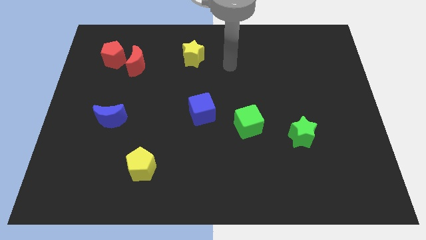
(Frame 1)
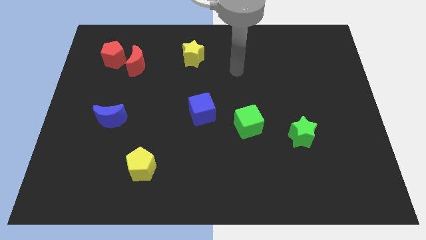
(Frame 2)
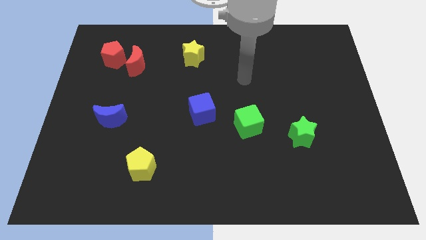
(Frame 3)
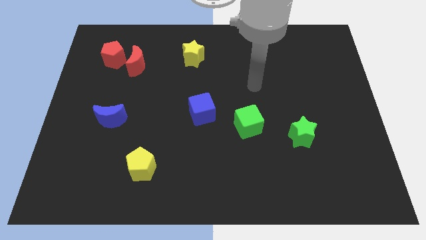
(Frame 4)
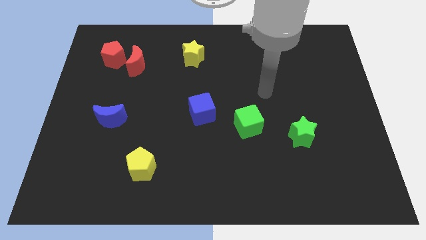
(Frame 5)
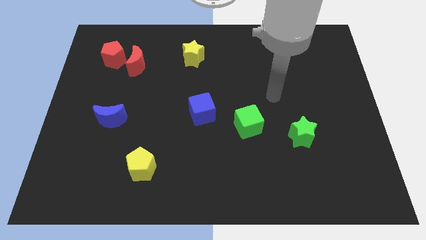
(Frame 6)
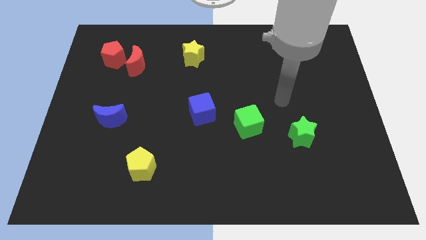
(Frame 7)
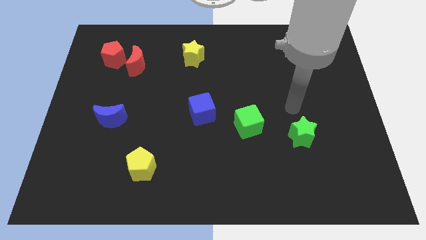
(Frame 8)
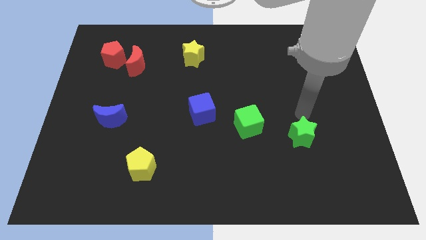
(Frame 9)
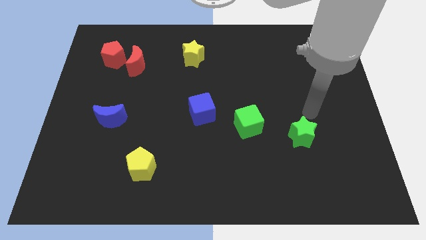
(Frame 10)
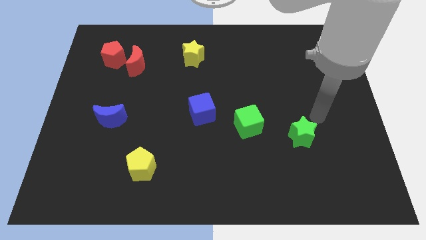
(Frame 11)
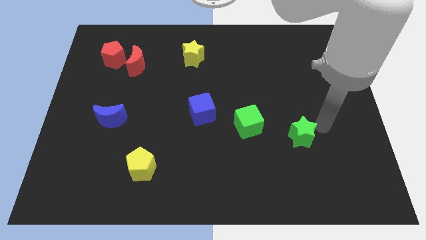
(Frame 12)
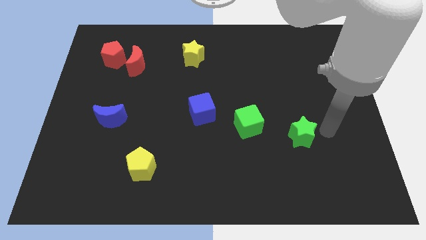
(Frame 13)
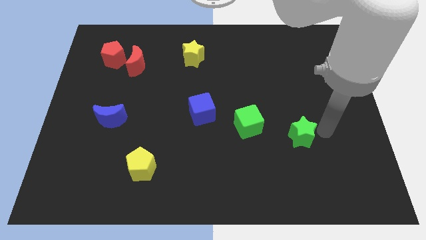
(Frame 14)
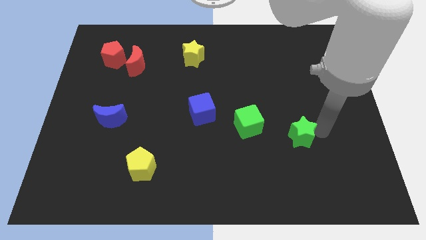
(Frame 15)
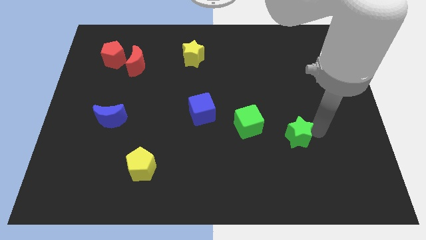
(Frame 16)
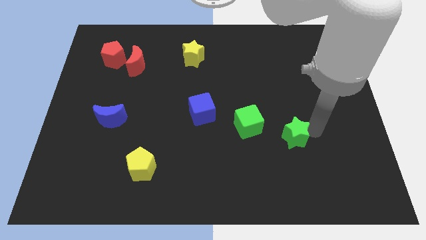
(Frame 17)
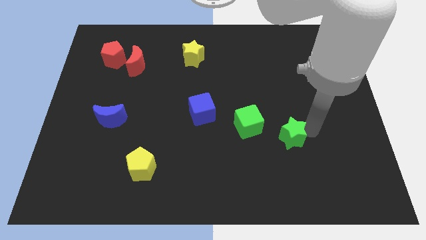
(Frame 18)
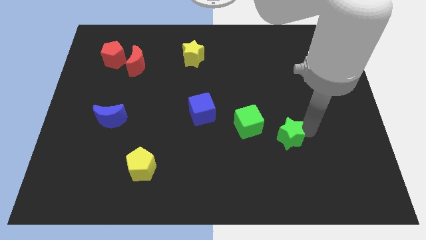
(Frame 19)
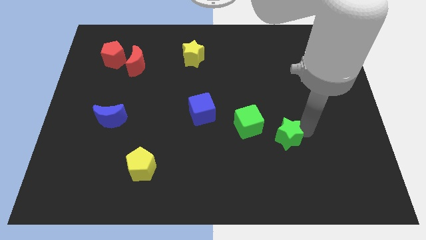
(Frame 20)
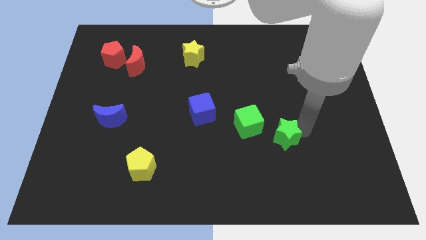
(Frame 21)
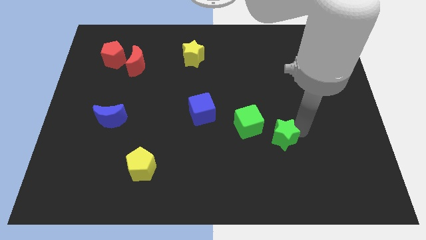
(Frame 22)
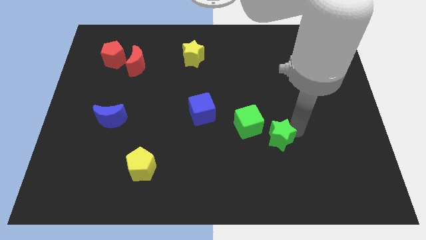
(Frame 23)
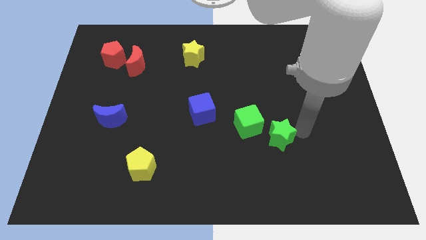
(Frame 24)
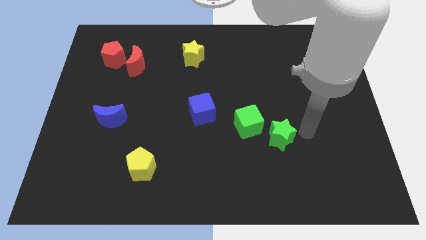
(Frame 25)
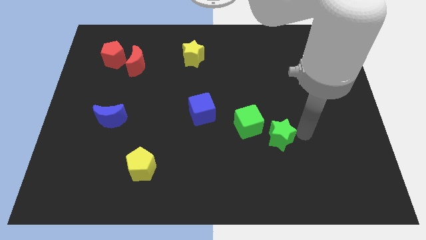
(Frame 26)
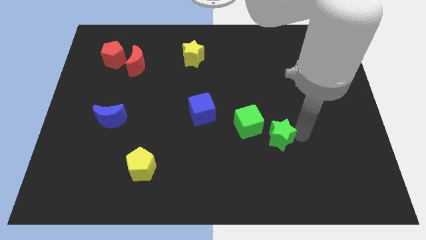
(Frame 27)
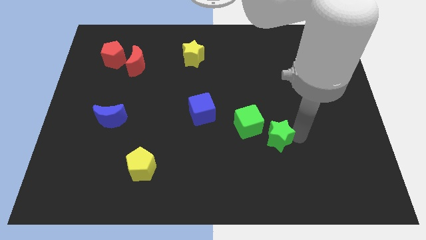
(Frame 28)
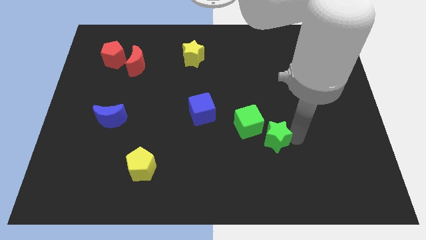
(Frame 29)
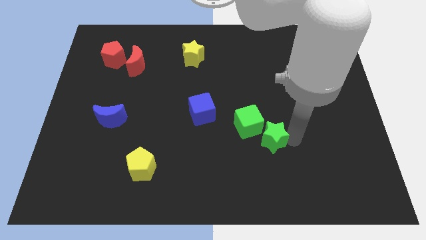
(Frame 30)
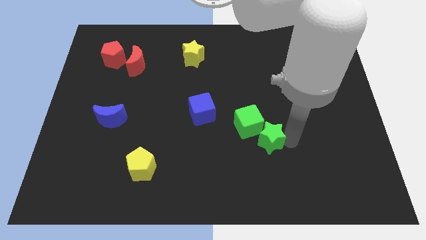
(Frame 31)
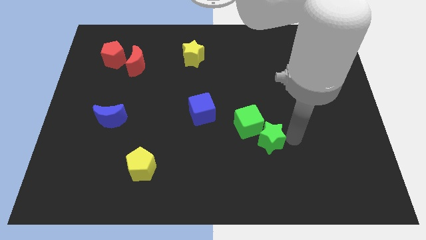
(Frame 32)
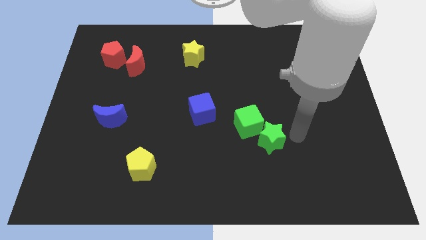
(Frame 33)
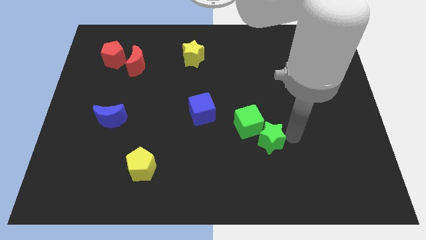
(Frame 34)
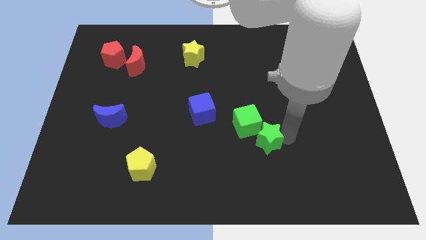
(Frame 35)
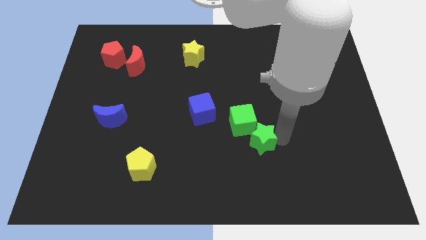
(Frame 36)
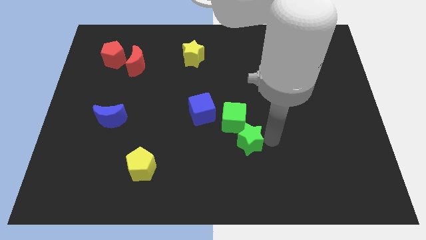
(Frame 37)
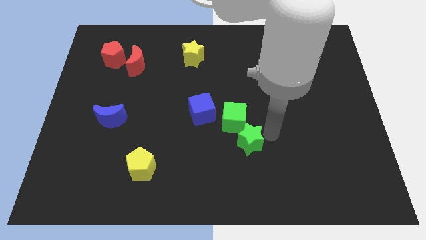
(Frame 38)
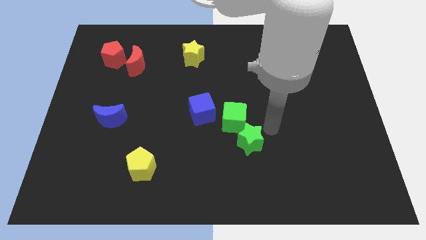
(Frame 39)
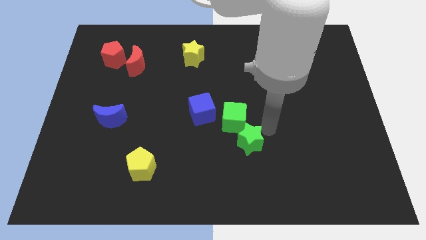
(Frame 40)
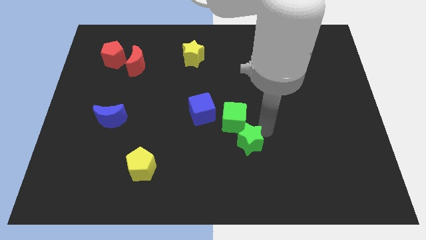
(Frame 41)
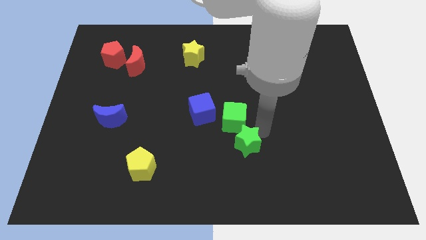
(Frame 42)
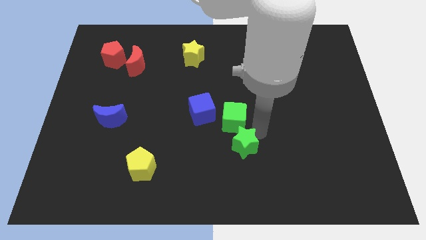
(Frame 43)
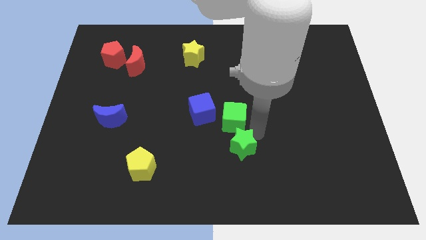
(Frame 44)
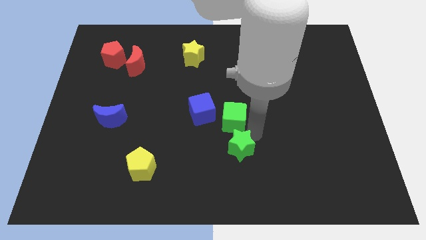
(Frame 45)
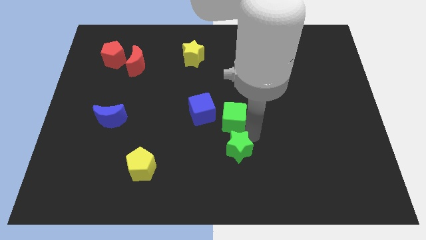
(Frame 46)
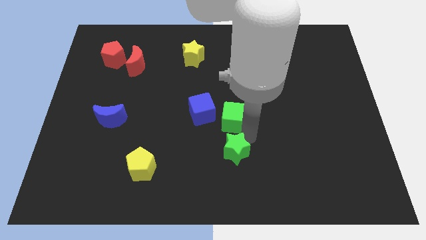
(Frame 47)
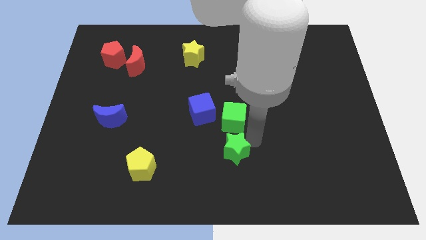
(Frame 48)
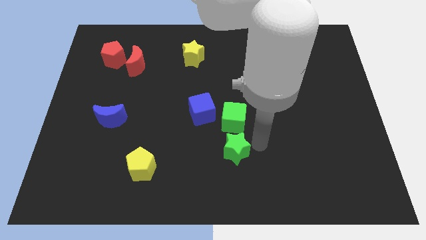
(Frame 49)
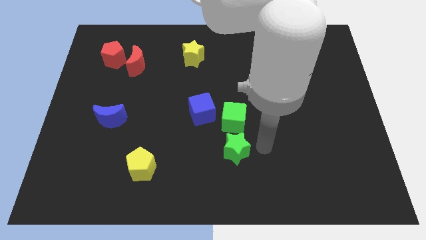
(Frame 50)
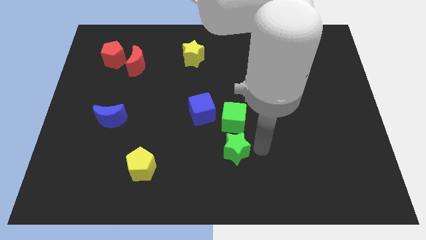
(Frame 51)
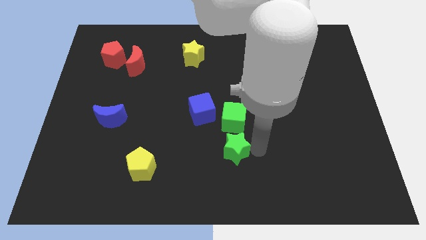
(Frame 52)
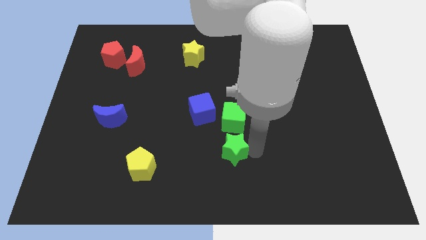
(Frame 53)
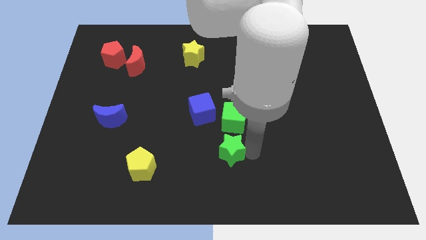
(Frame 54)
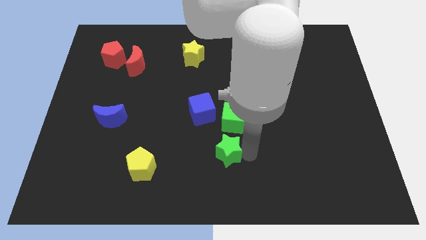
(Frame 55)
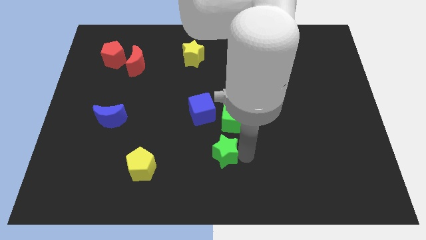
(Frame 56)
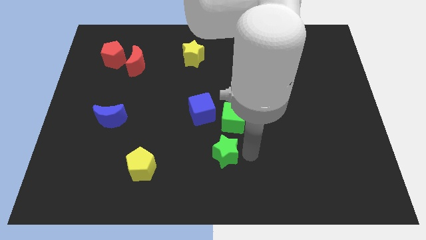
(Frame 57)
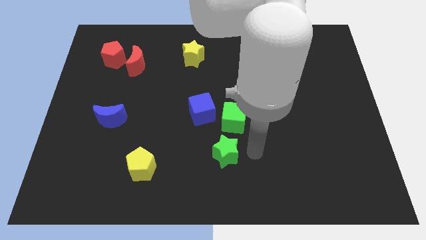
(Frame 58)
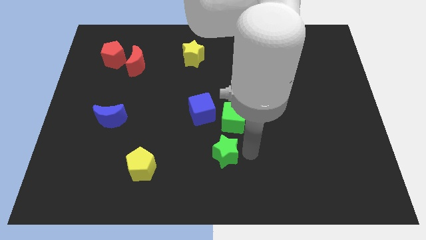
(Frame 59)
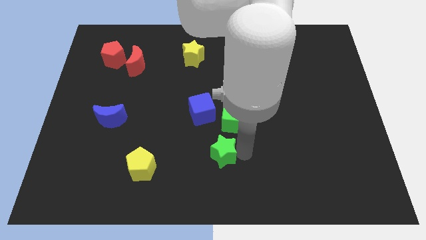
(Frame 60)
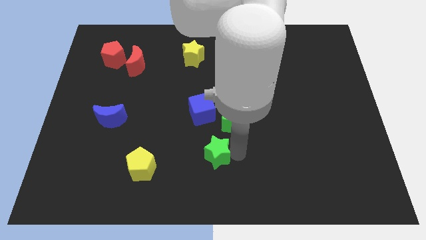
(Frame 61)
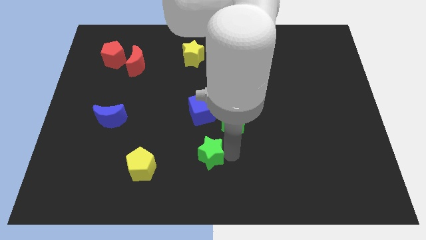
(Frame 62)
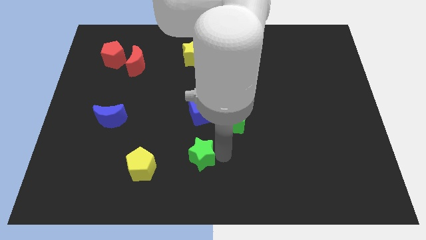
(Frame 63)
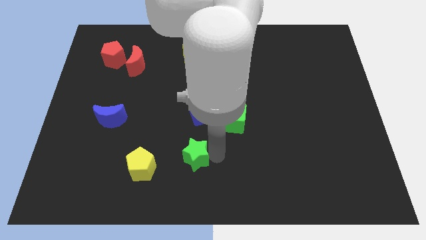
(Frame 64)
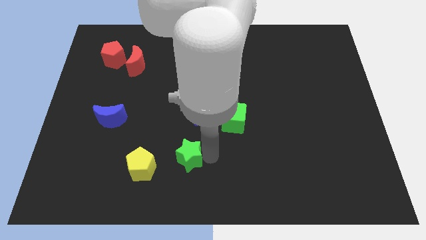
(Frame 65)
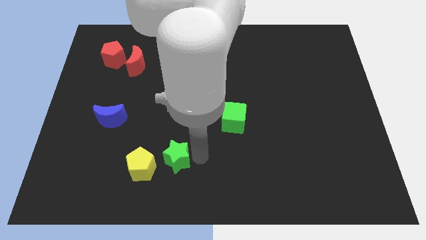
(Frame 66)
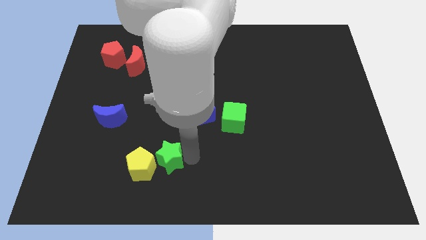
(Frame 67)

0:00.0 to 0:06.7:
slide the green star to the yellow pentagon

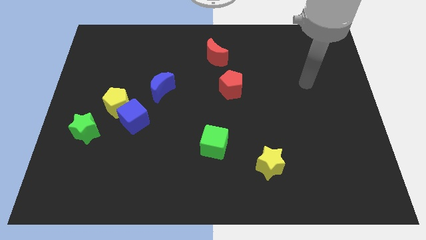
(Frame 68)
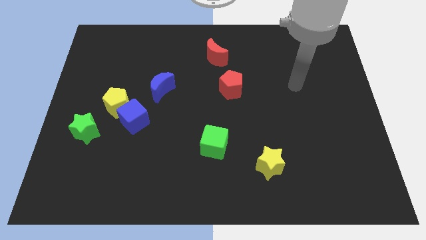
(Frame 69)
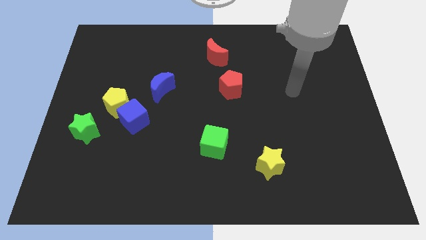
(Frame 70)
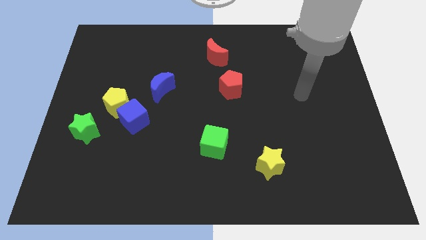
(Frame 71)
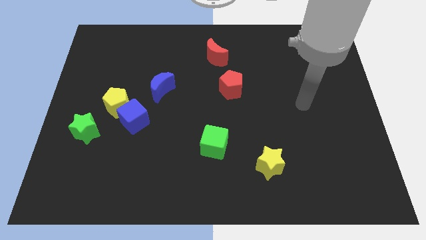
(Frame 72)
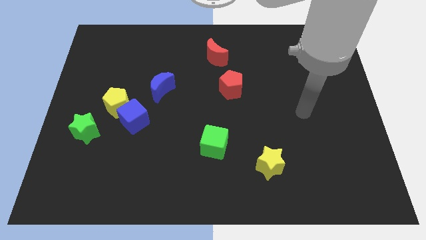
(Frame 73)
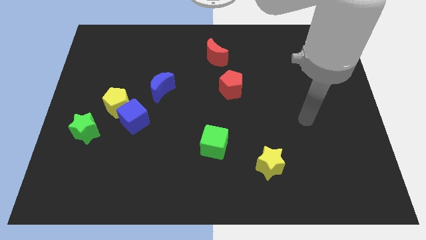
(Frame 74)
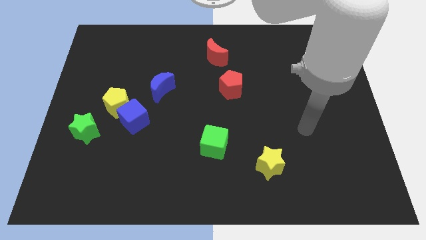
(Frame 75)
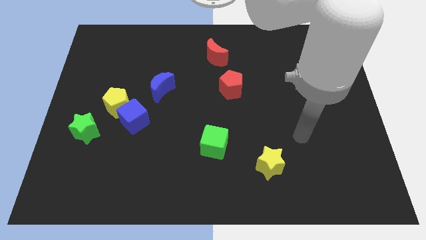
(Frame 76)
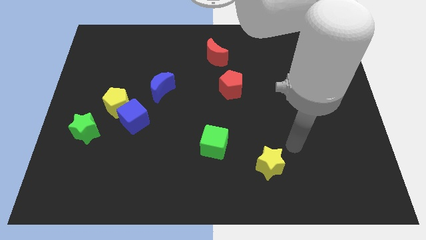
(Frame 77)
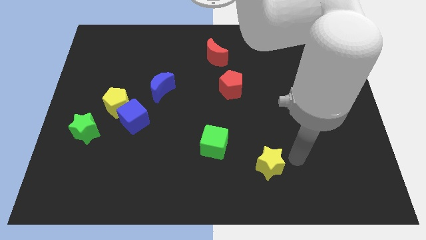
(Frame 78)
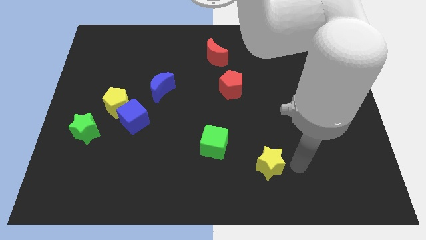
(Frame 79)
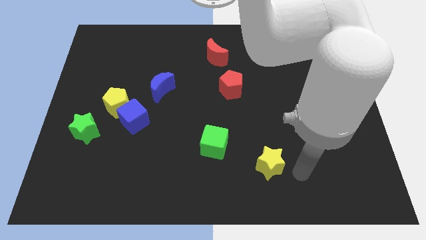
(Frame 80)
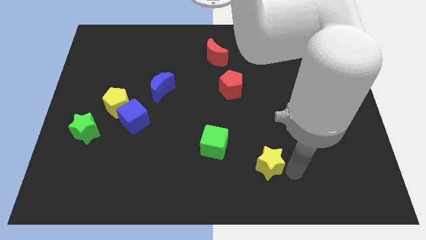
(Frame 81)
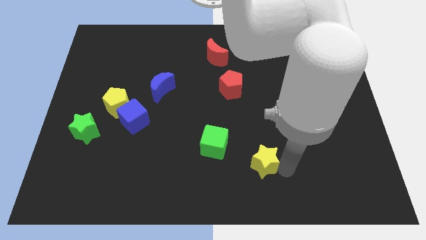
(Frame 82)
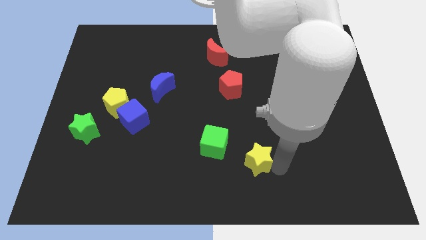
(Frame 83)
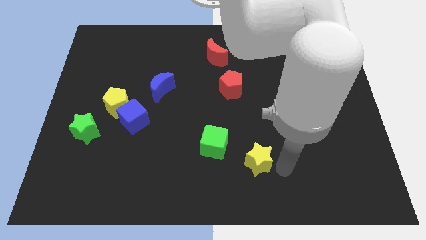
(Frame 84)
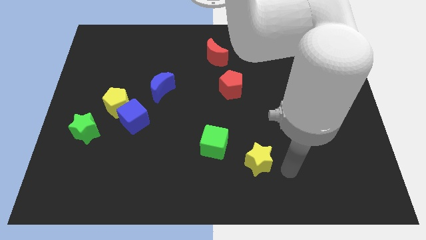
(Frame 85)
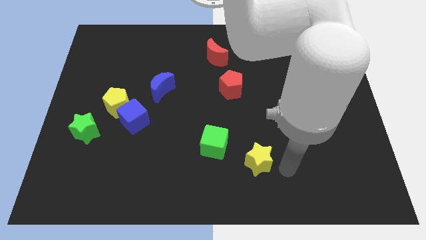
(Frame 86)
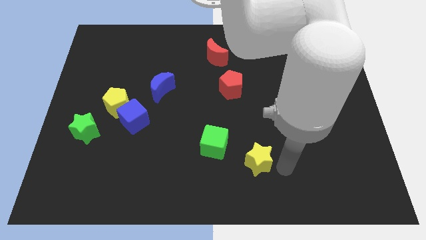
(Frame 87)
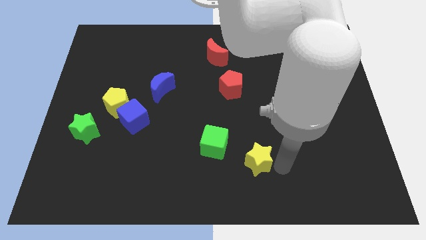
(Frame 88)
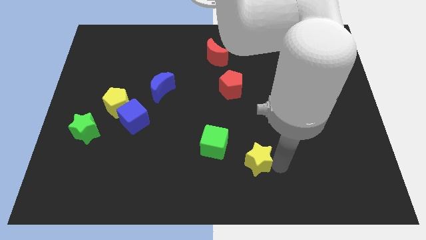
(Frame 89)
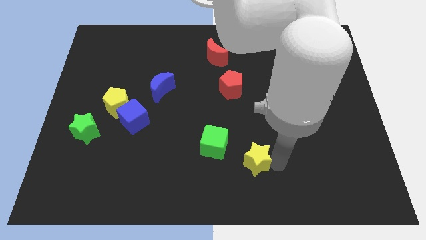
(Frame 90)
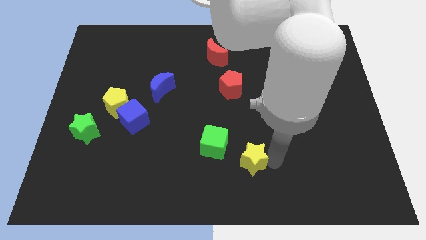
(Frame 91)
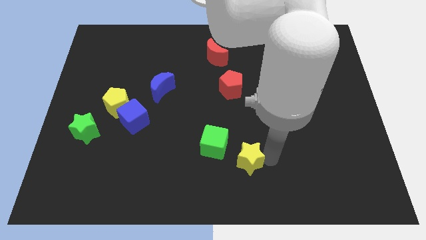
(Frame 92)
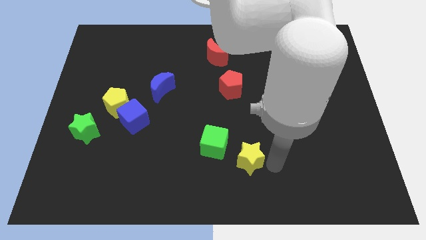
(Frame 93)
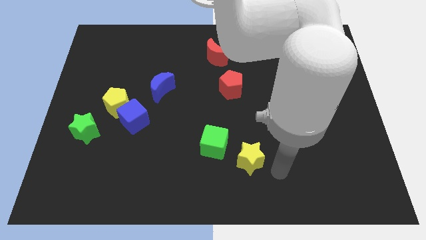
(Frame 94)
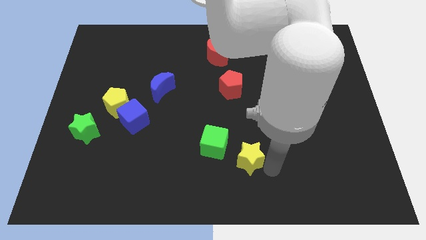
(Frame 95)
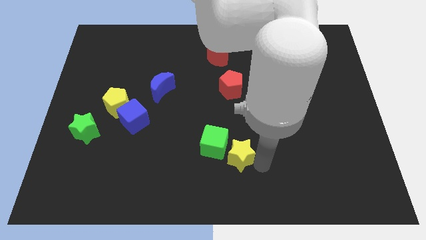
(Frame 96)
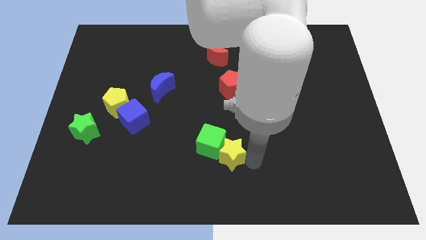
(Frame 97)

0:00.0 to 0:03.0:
move the yellow star next to the green cube
